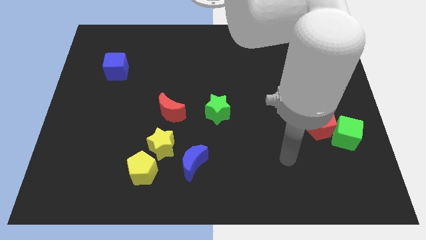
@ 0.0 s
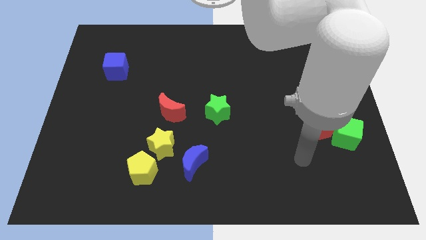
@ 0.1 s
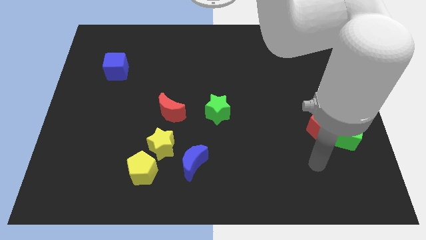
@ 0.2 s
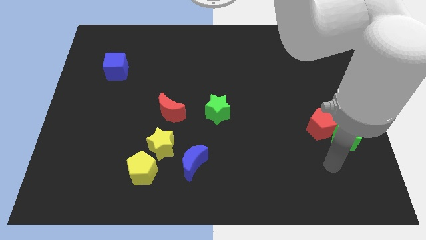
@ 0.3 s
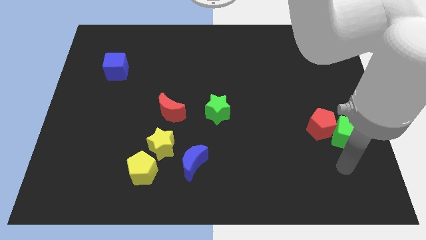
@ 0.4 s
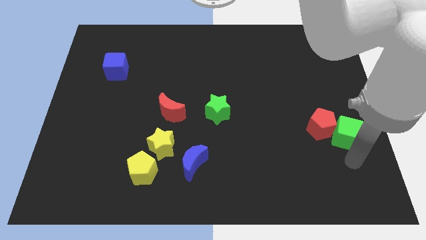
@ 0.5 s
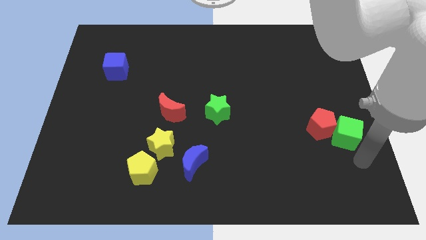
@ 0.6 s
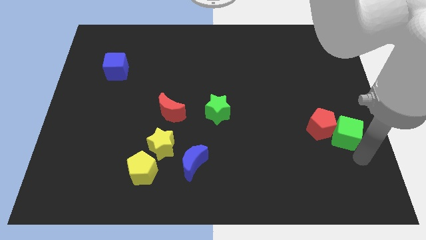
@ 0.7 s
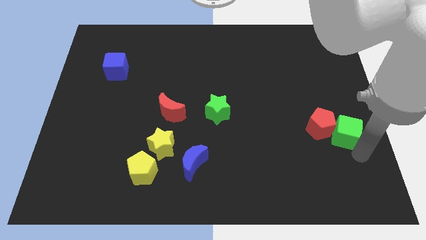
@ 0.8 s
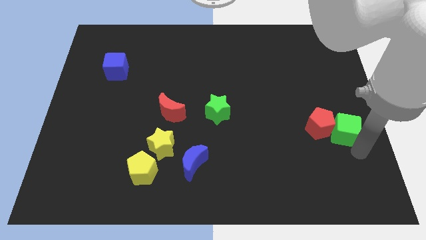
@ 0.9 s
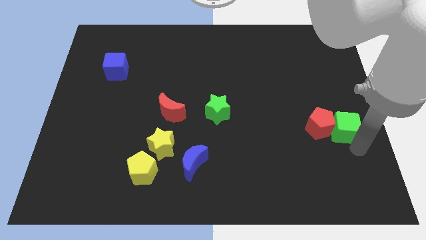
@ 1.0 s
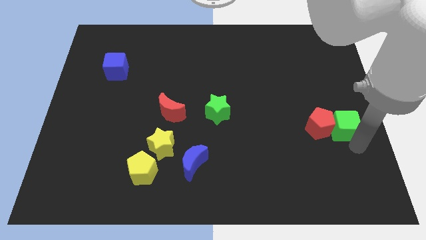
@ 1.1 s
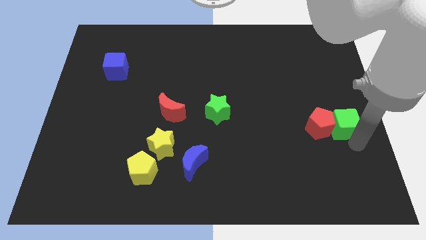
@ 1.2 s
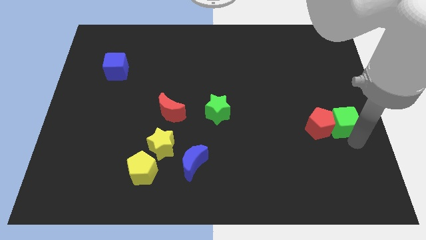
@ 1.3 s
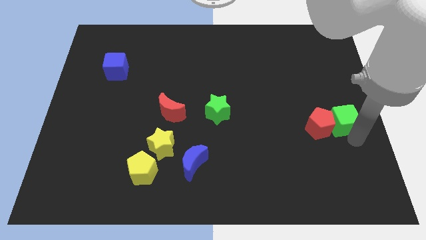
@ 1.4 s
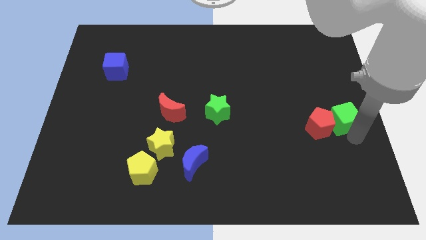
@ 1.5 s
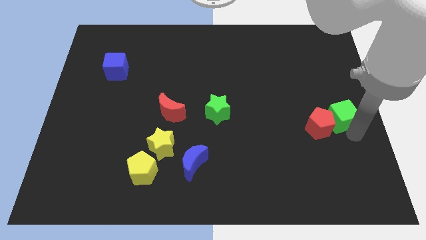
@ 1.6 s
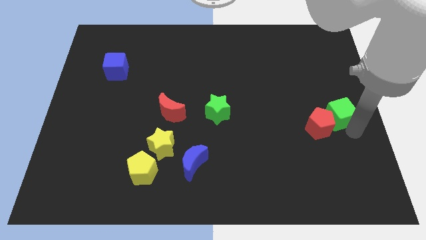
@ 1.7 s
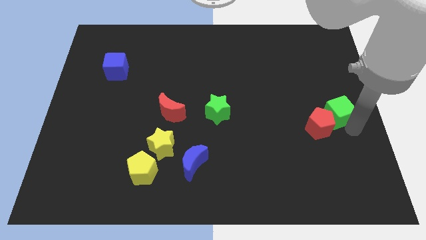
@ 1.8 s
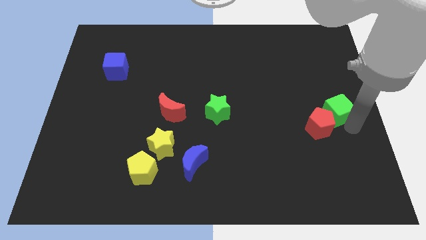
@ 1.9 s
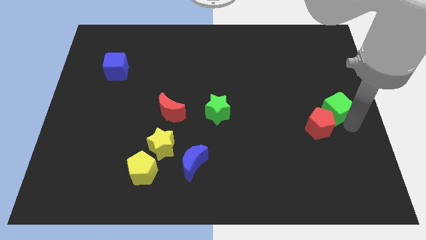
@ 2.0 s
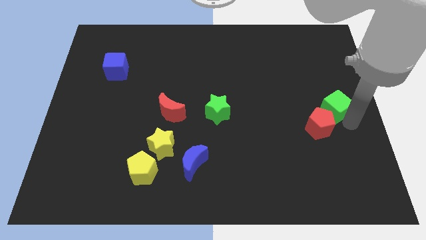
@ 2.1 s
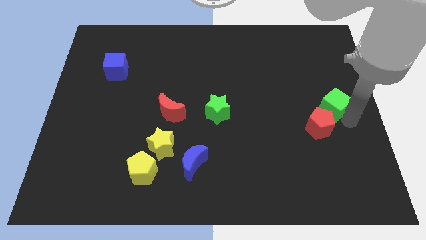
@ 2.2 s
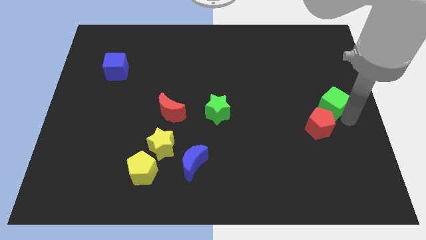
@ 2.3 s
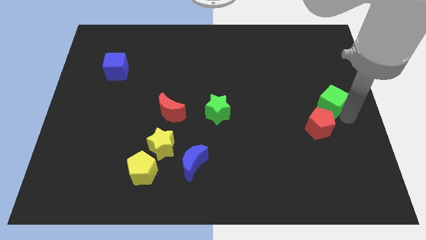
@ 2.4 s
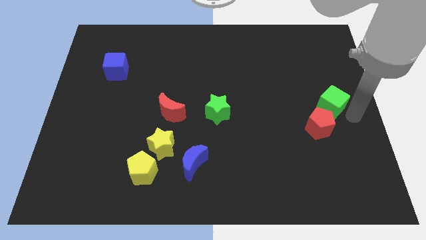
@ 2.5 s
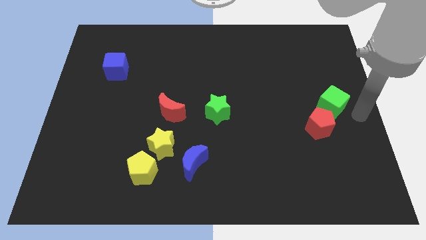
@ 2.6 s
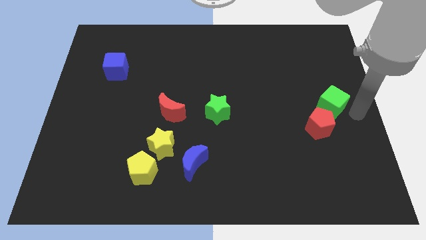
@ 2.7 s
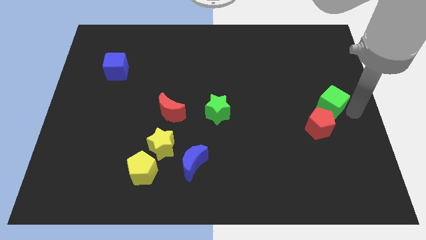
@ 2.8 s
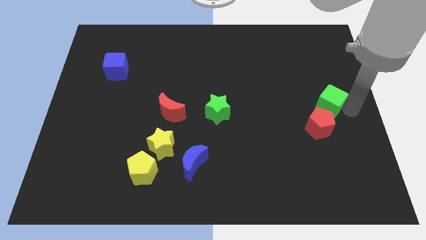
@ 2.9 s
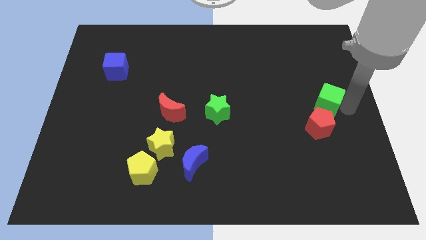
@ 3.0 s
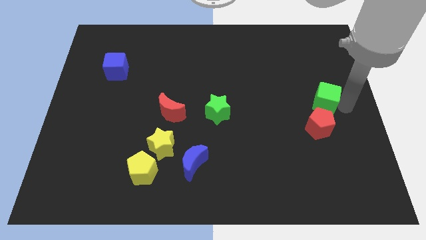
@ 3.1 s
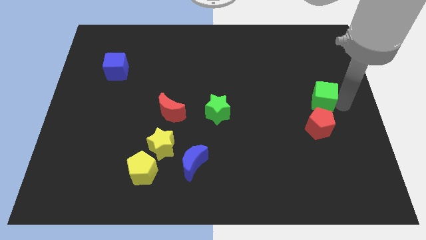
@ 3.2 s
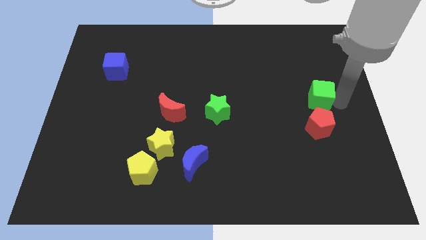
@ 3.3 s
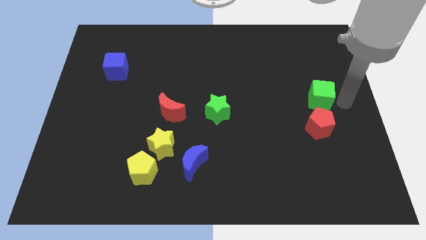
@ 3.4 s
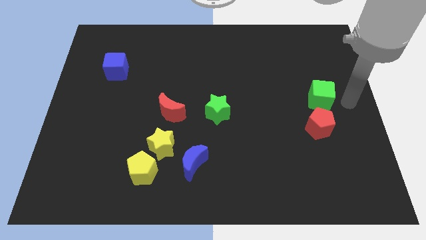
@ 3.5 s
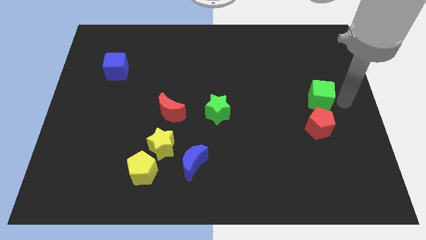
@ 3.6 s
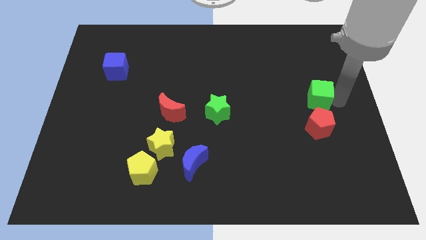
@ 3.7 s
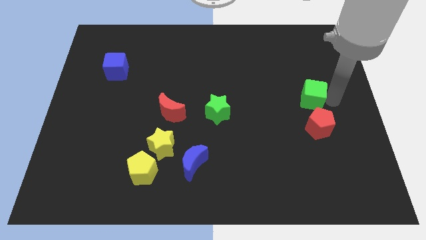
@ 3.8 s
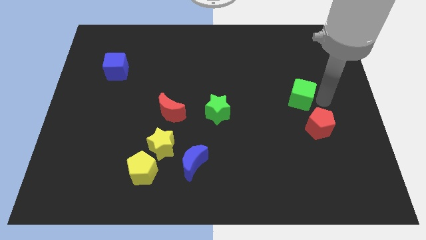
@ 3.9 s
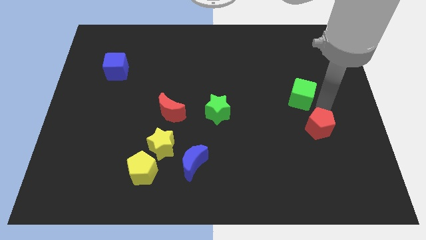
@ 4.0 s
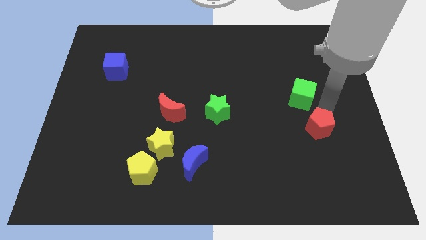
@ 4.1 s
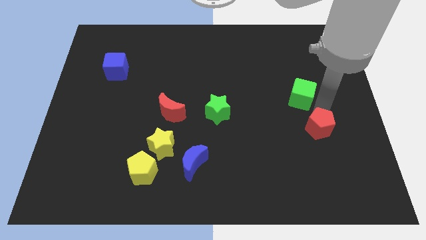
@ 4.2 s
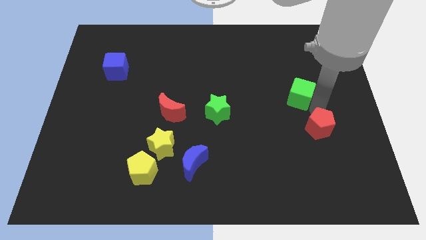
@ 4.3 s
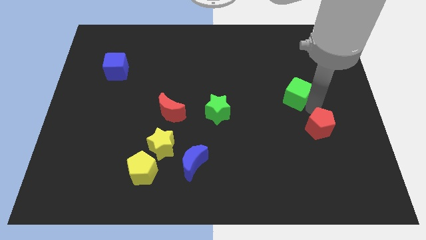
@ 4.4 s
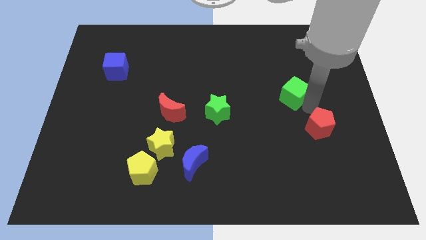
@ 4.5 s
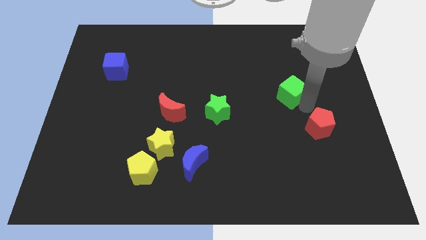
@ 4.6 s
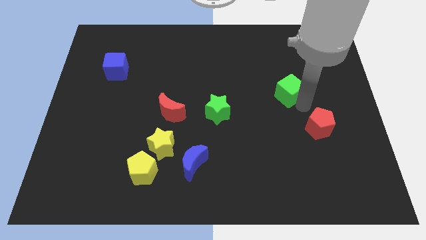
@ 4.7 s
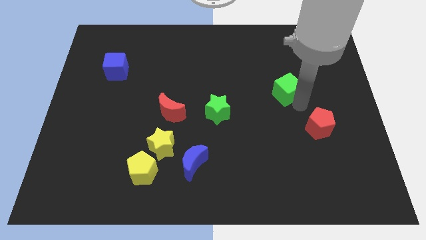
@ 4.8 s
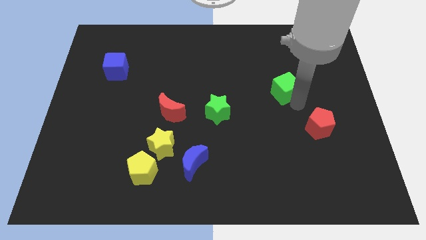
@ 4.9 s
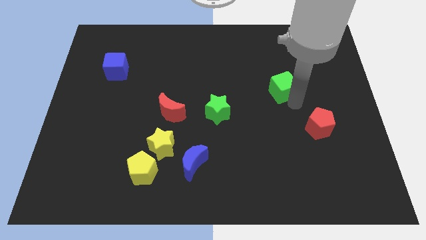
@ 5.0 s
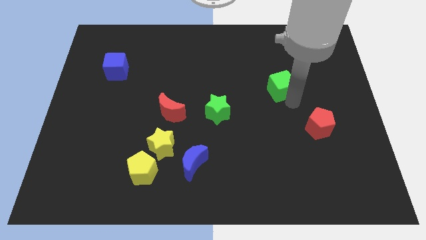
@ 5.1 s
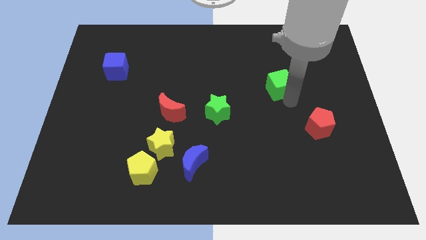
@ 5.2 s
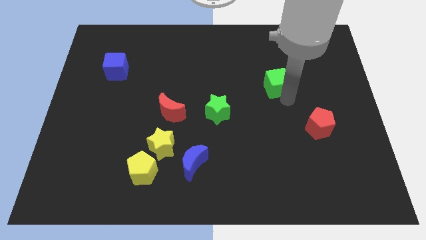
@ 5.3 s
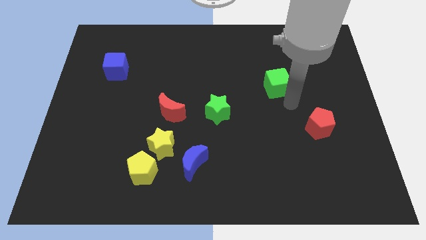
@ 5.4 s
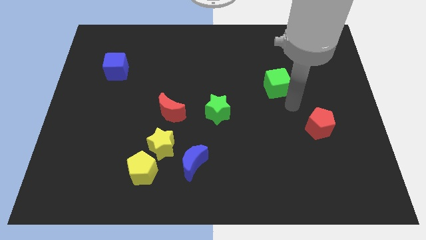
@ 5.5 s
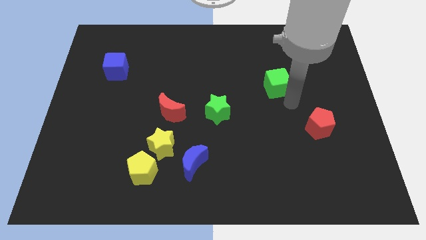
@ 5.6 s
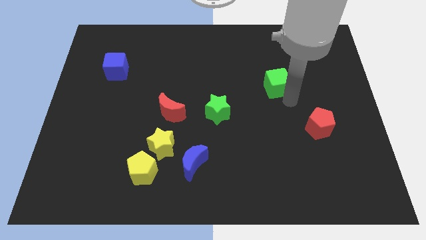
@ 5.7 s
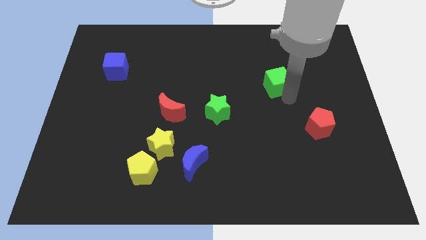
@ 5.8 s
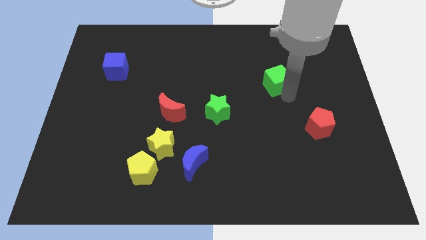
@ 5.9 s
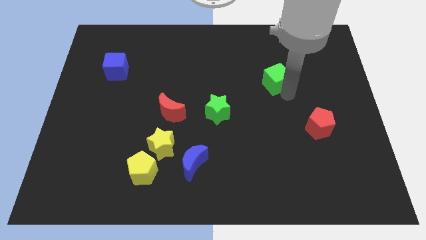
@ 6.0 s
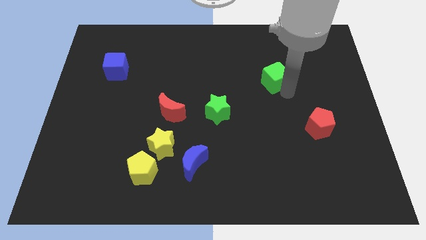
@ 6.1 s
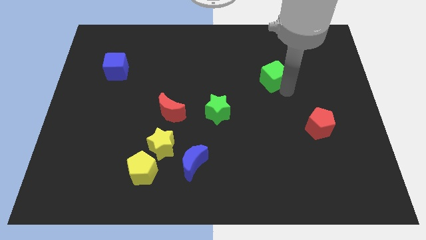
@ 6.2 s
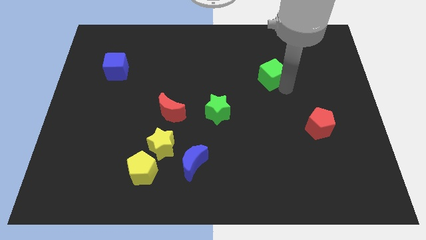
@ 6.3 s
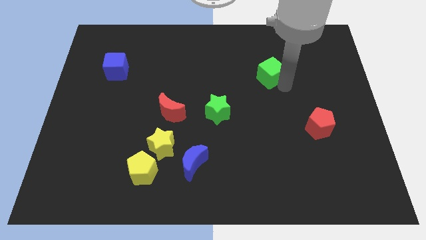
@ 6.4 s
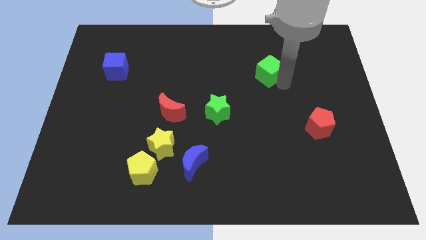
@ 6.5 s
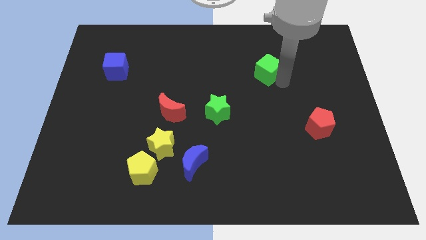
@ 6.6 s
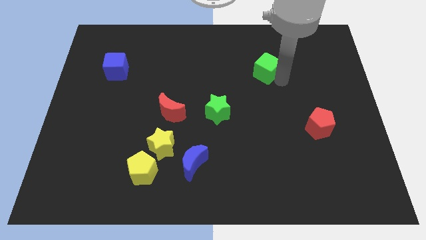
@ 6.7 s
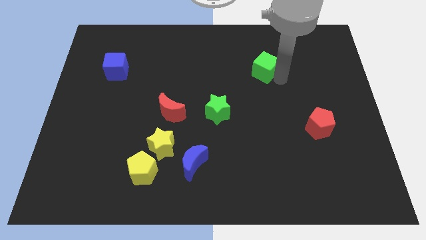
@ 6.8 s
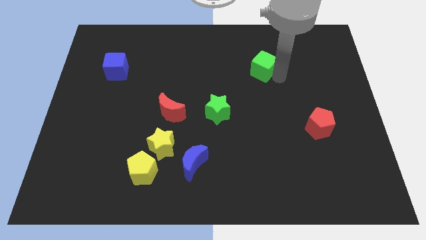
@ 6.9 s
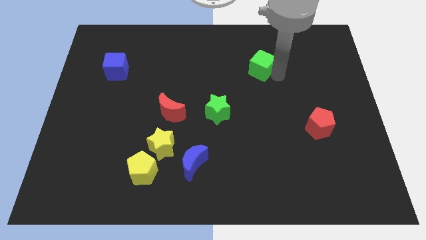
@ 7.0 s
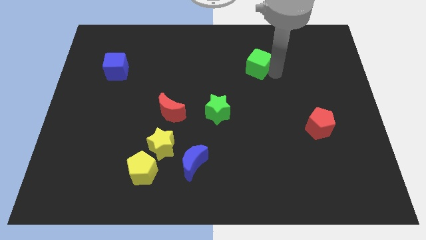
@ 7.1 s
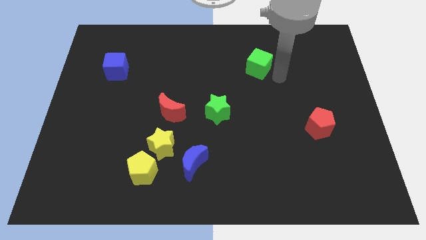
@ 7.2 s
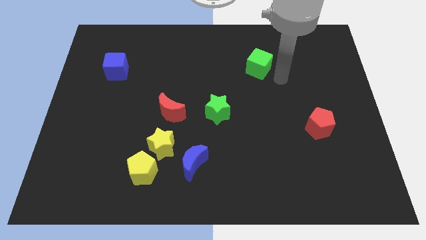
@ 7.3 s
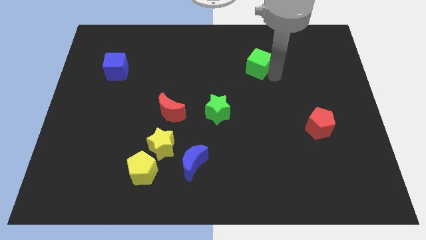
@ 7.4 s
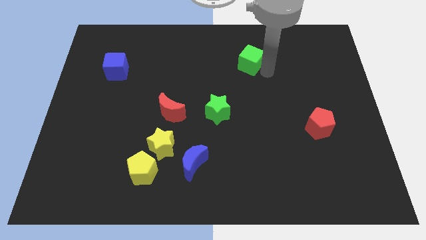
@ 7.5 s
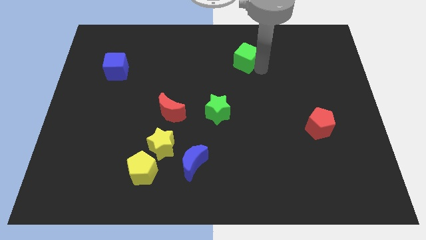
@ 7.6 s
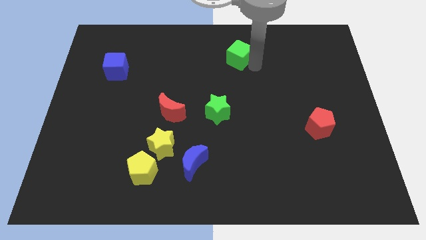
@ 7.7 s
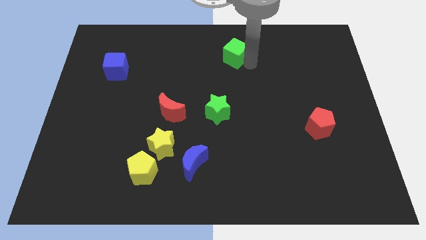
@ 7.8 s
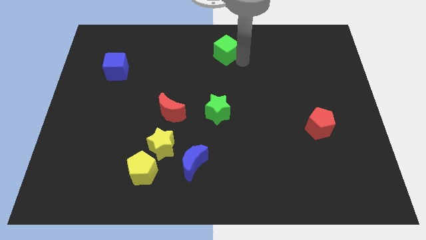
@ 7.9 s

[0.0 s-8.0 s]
slide the green cube to the top side
